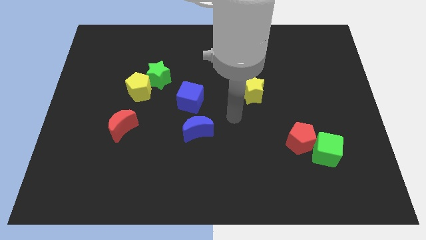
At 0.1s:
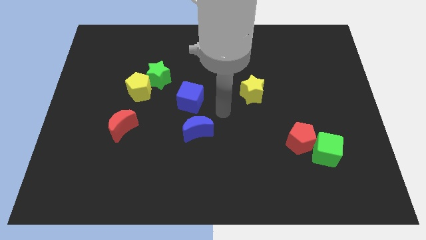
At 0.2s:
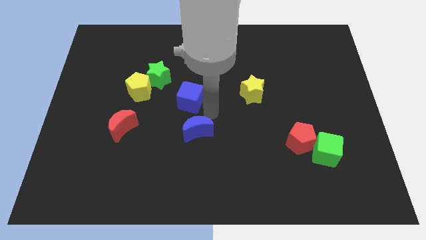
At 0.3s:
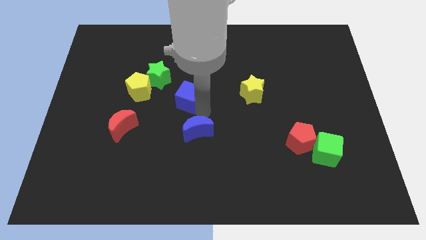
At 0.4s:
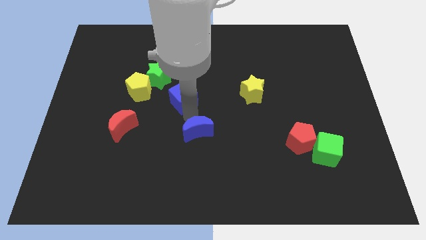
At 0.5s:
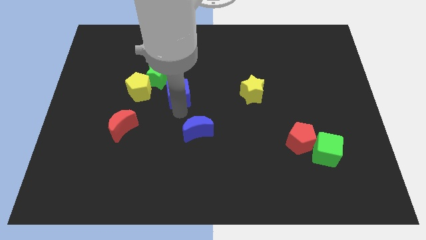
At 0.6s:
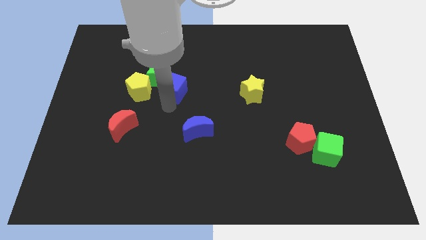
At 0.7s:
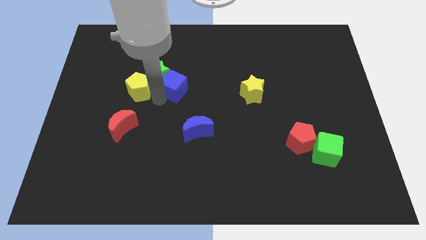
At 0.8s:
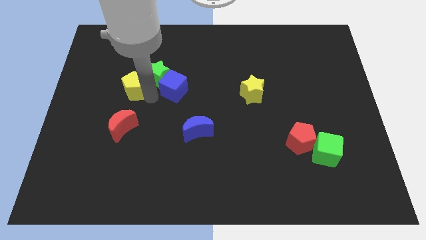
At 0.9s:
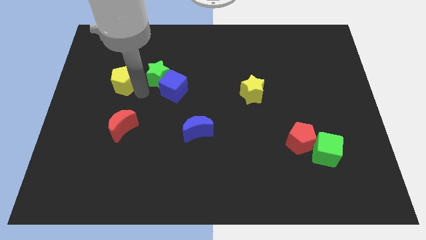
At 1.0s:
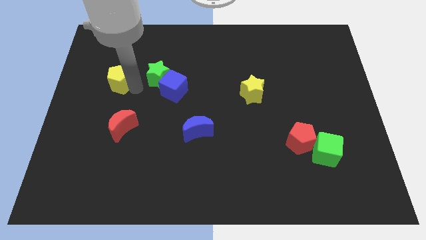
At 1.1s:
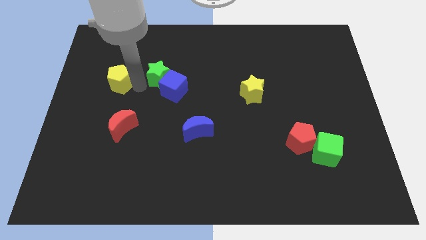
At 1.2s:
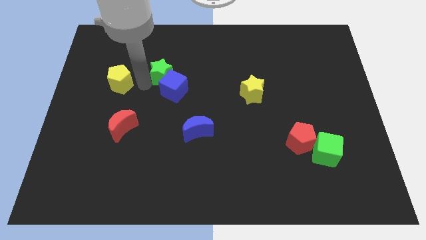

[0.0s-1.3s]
pull the green star apart from the yellow pentagon

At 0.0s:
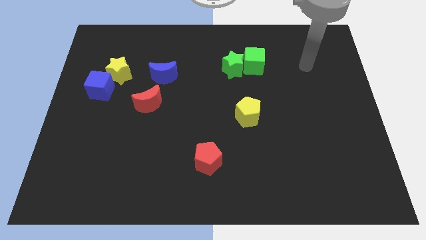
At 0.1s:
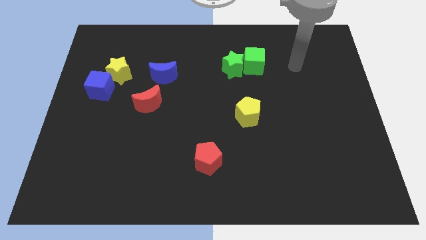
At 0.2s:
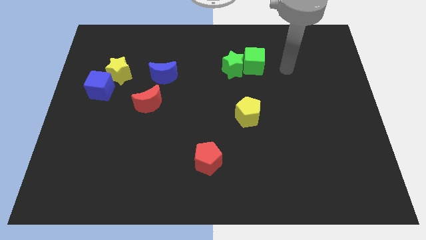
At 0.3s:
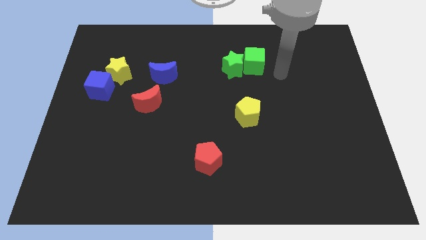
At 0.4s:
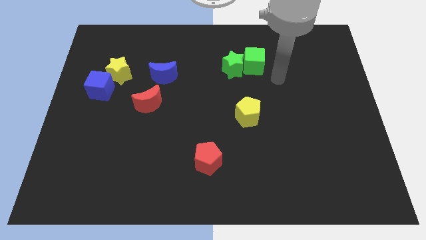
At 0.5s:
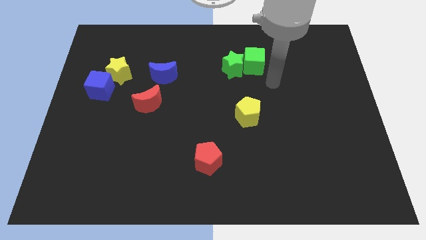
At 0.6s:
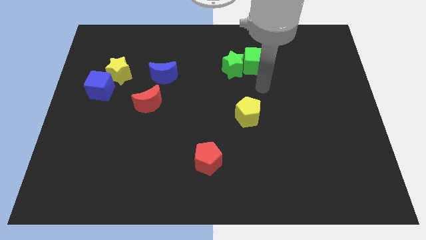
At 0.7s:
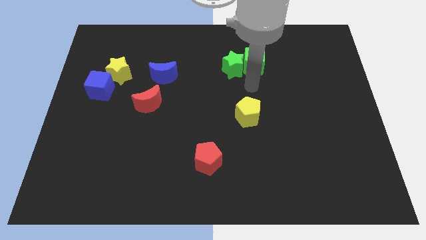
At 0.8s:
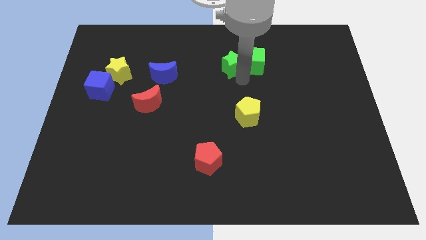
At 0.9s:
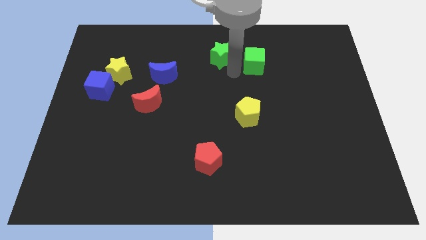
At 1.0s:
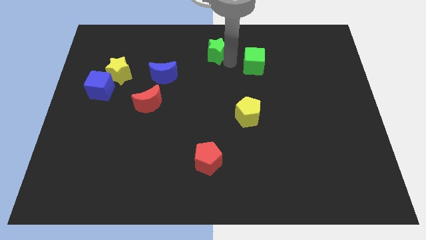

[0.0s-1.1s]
pull the green cube apart from the green star

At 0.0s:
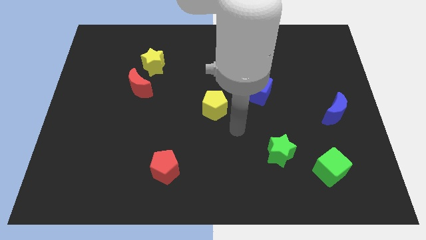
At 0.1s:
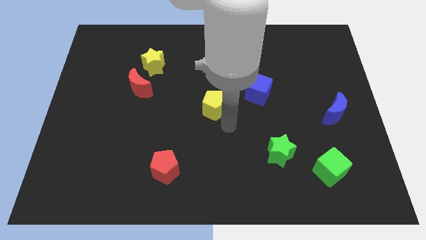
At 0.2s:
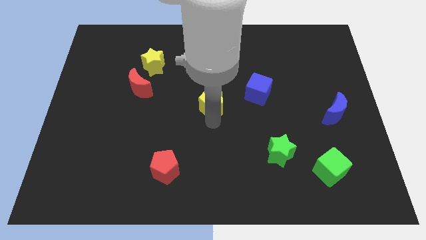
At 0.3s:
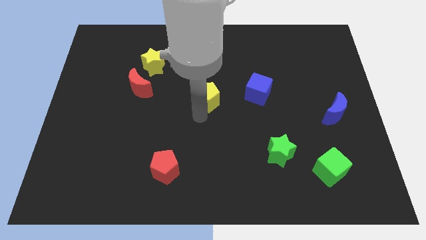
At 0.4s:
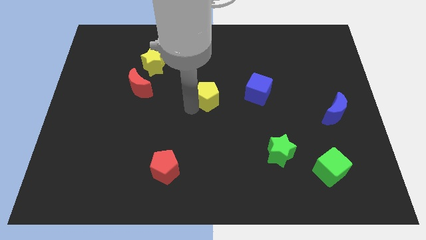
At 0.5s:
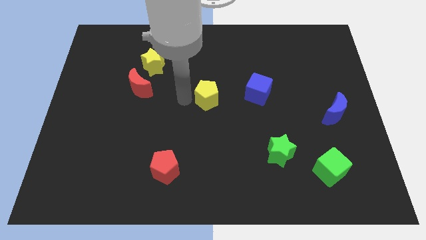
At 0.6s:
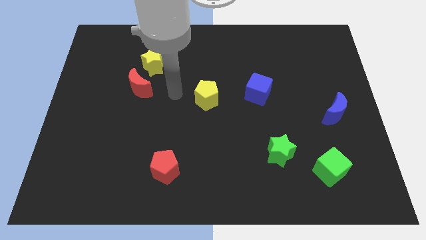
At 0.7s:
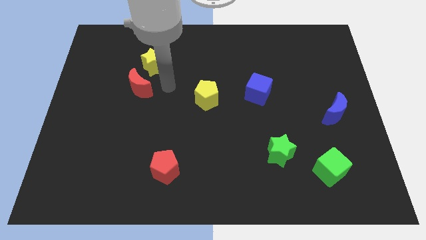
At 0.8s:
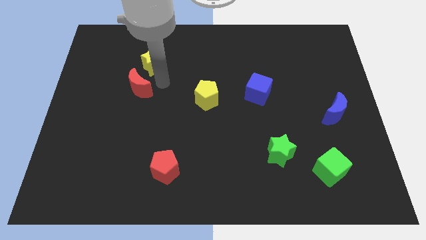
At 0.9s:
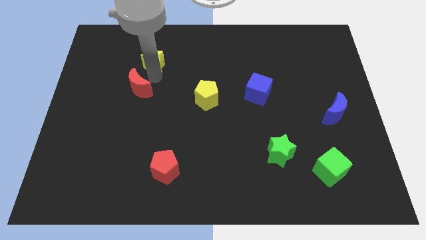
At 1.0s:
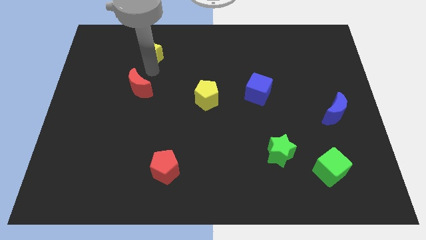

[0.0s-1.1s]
pull the red moon apart from the yellow star

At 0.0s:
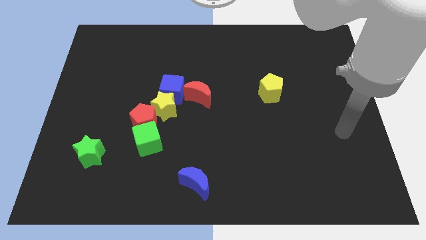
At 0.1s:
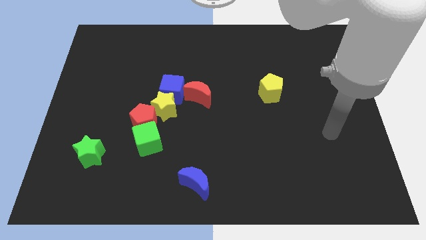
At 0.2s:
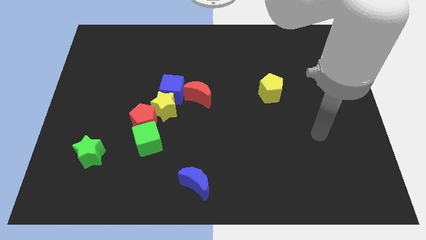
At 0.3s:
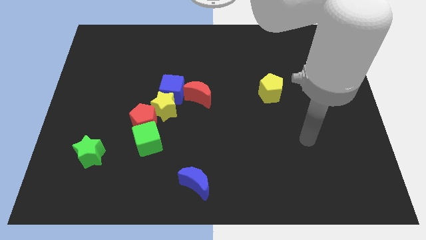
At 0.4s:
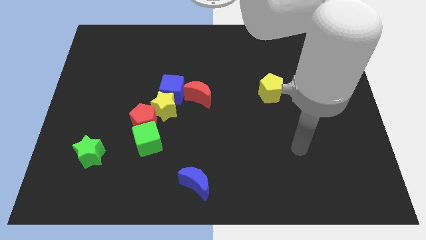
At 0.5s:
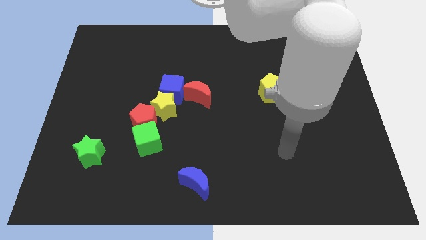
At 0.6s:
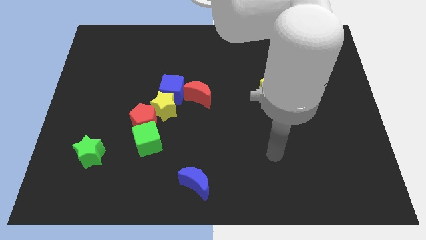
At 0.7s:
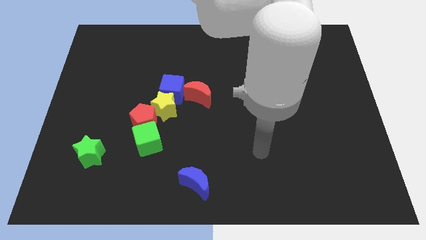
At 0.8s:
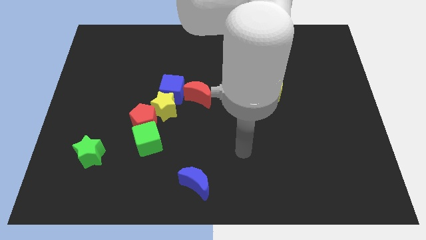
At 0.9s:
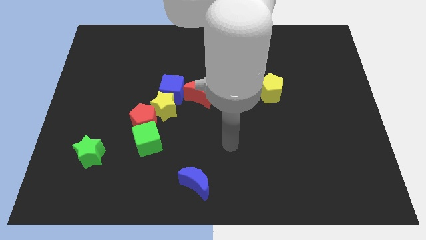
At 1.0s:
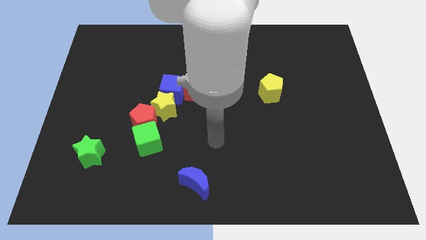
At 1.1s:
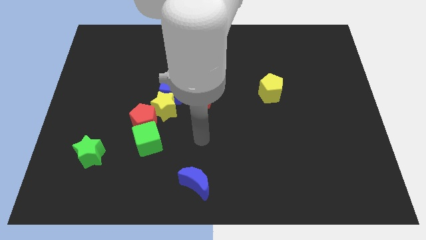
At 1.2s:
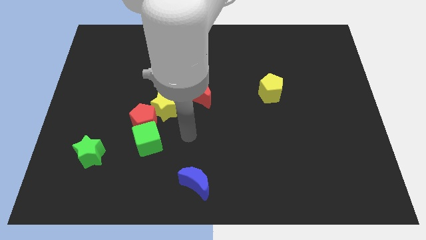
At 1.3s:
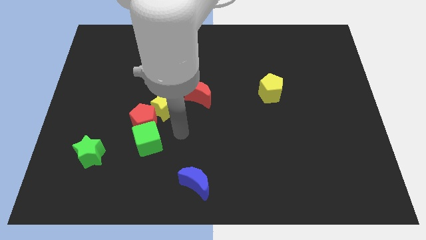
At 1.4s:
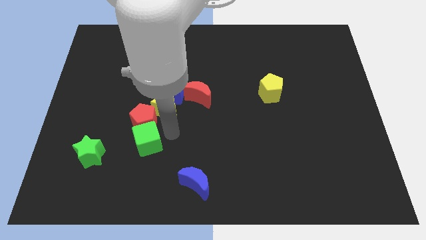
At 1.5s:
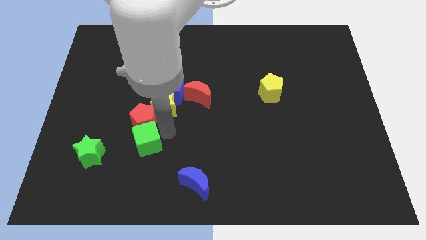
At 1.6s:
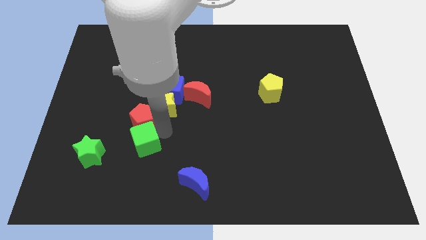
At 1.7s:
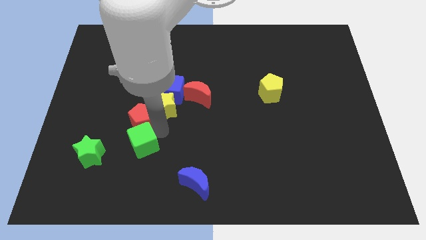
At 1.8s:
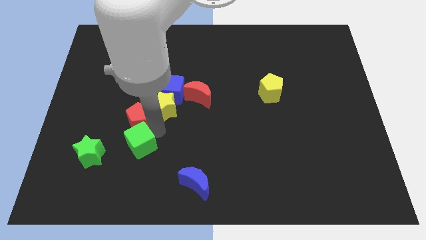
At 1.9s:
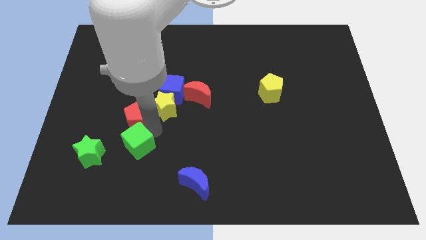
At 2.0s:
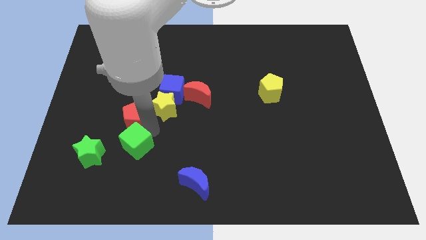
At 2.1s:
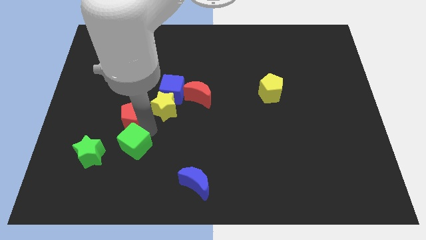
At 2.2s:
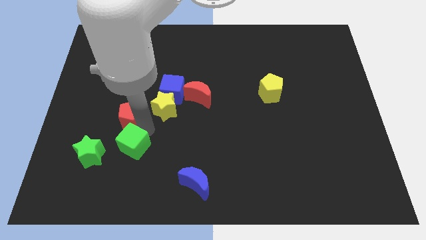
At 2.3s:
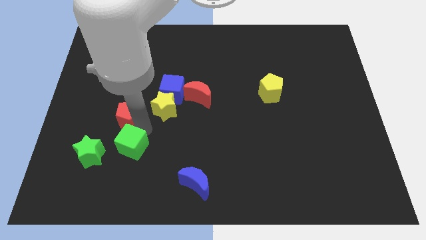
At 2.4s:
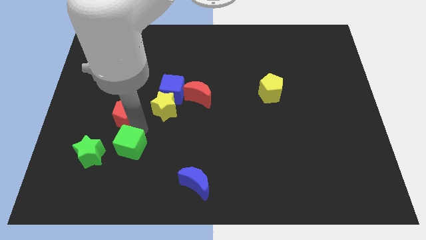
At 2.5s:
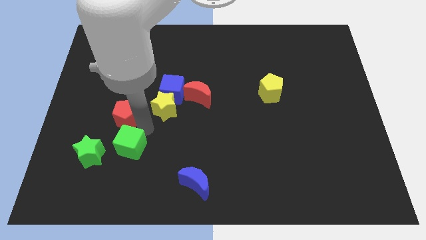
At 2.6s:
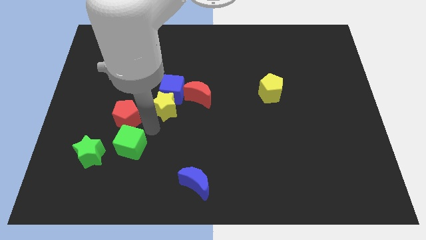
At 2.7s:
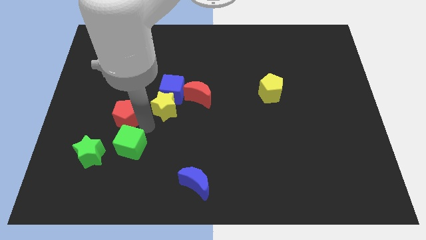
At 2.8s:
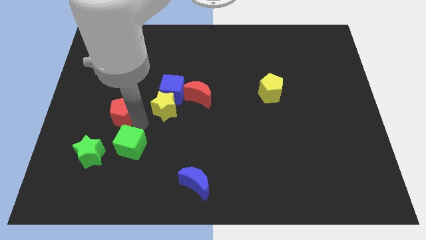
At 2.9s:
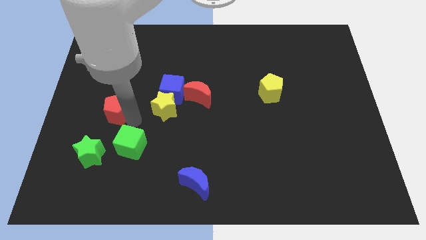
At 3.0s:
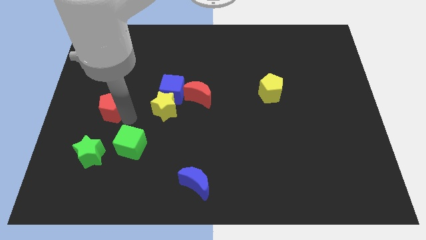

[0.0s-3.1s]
move the red pentagon away from the green cube and yellow star

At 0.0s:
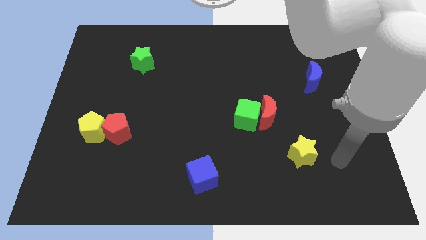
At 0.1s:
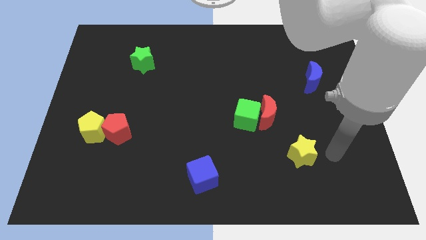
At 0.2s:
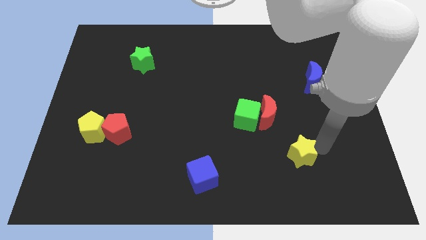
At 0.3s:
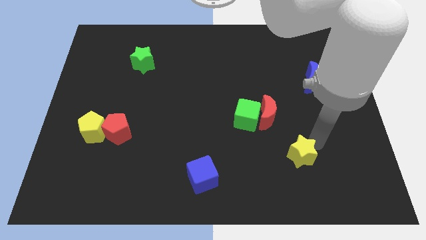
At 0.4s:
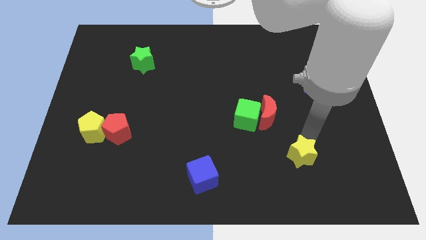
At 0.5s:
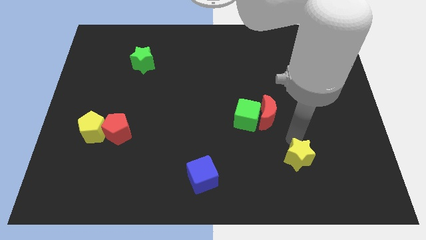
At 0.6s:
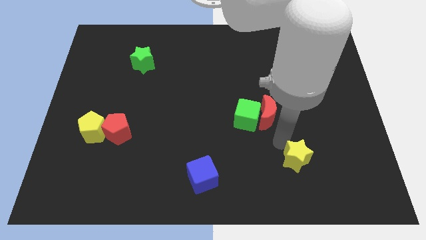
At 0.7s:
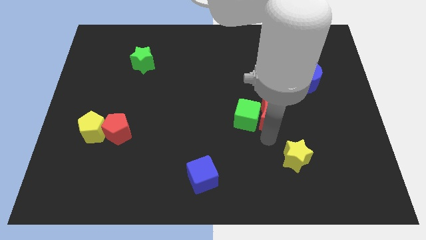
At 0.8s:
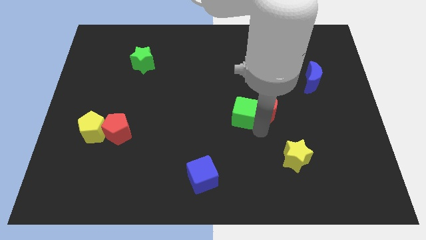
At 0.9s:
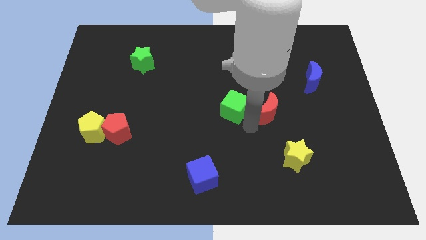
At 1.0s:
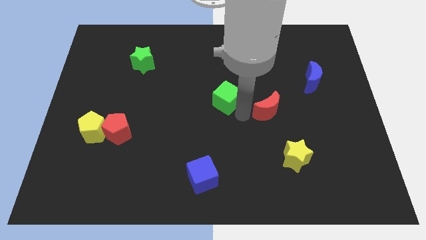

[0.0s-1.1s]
pull the red moon apart from the green cube

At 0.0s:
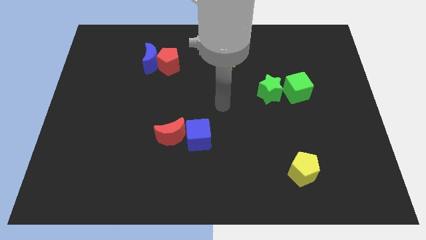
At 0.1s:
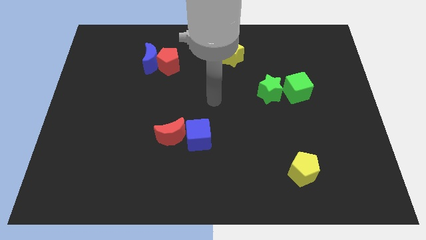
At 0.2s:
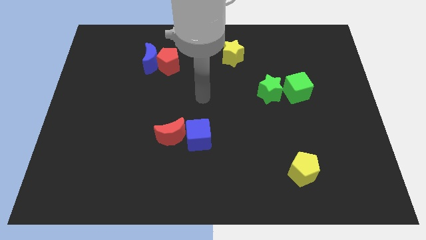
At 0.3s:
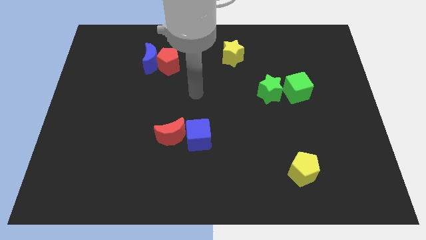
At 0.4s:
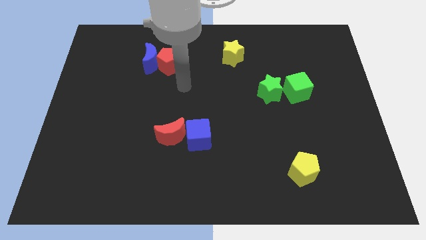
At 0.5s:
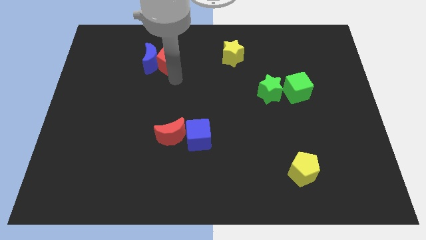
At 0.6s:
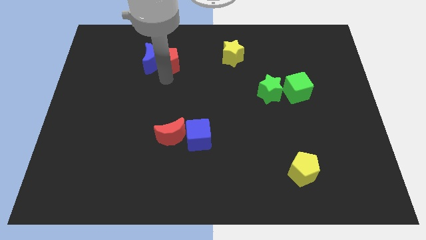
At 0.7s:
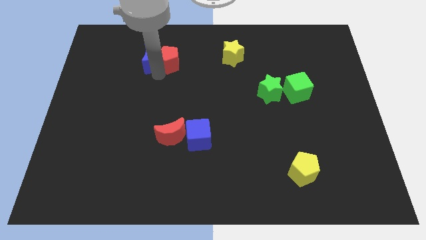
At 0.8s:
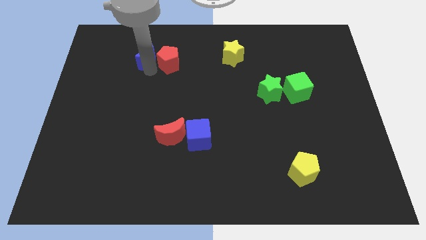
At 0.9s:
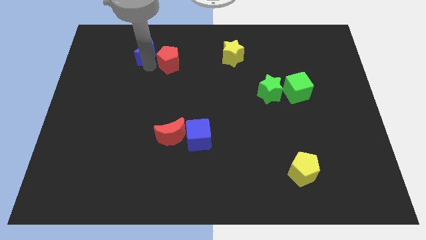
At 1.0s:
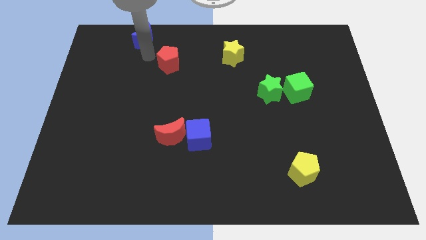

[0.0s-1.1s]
move the red pentagon away from the blue moon

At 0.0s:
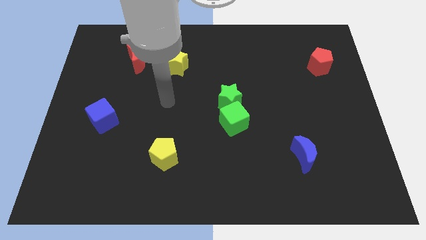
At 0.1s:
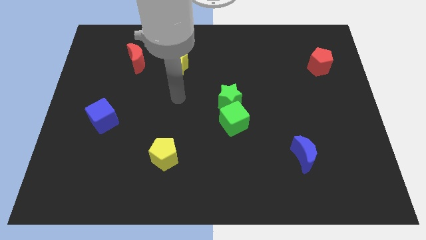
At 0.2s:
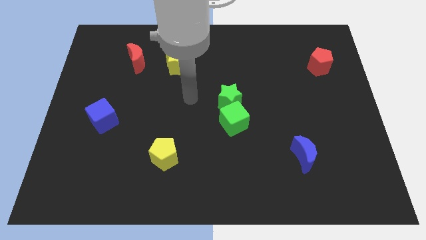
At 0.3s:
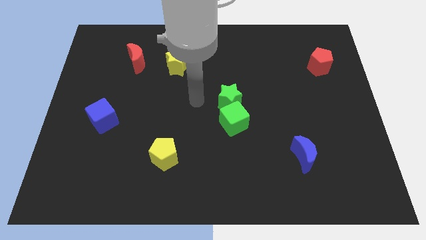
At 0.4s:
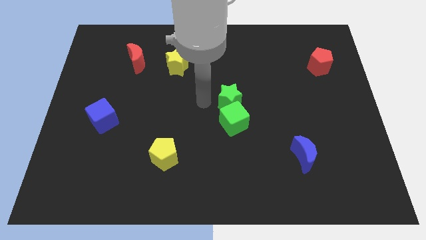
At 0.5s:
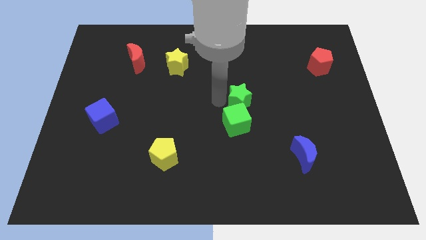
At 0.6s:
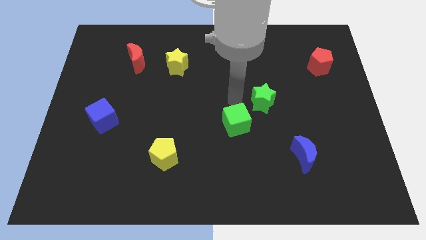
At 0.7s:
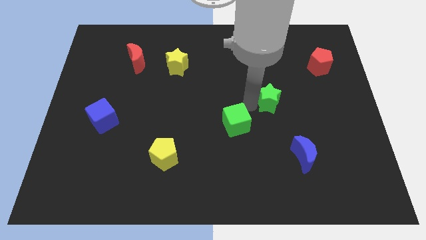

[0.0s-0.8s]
move the green cube away from the green star
